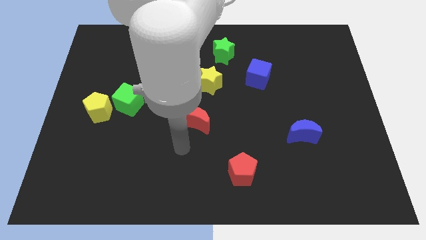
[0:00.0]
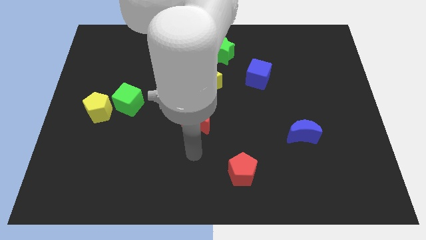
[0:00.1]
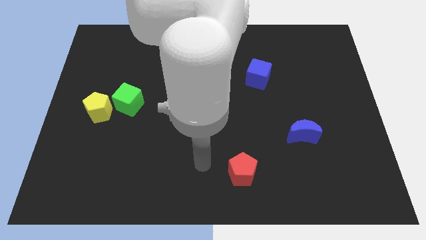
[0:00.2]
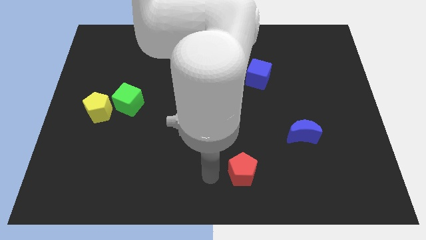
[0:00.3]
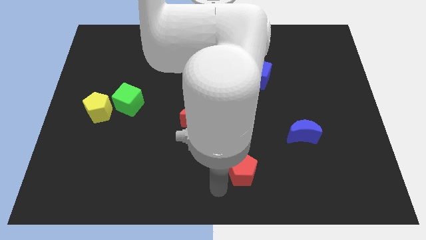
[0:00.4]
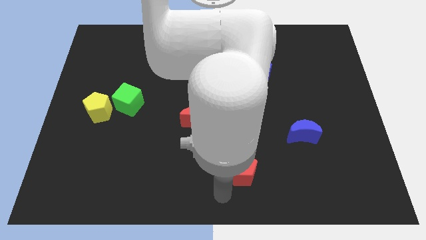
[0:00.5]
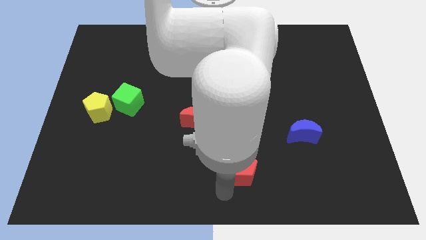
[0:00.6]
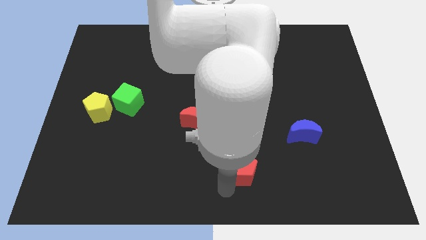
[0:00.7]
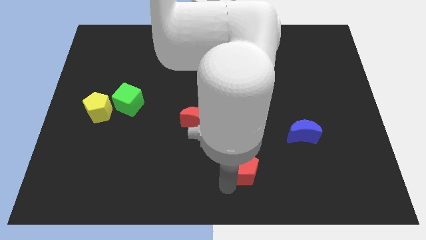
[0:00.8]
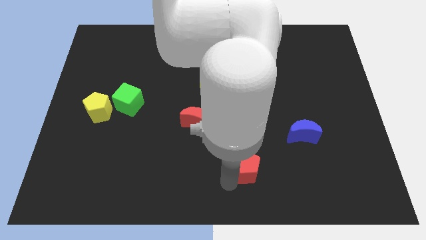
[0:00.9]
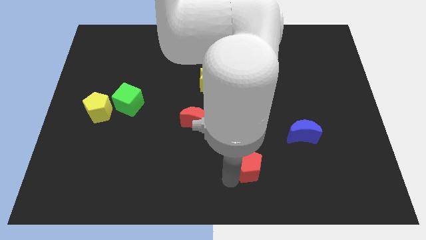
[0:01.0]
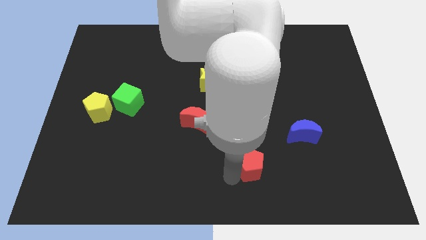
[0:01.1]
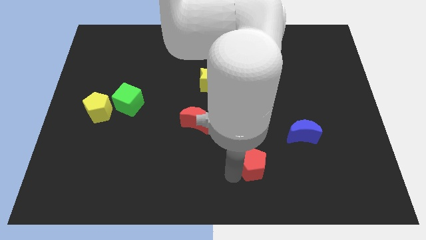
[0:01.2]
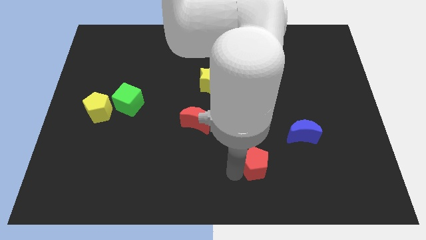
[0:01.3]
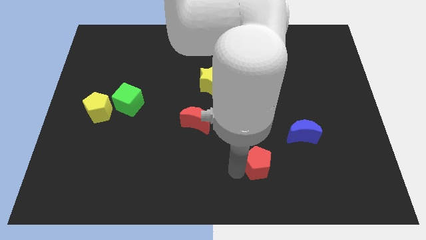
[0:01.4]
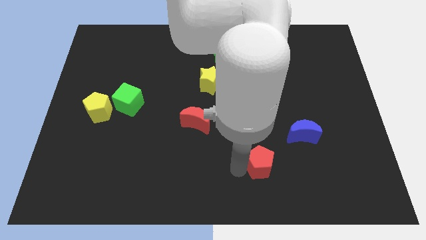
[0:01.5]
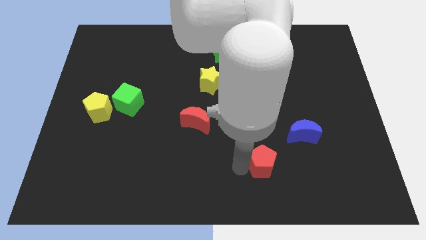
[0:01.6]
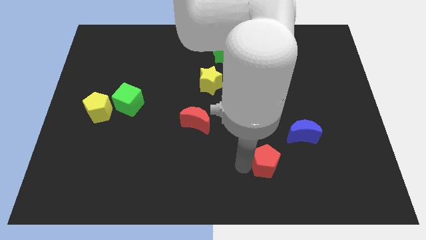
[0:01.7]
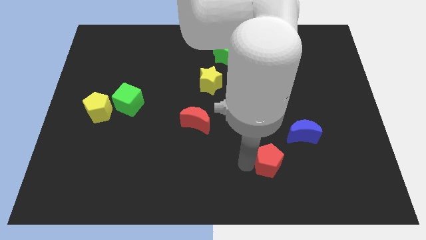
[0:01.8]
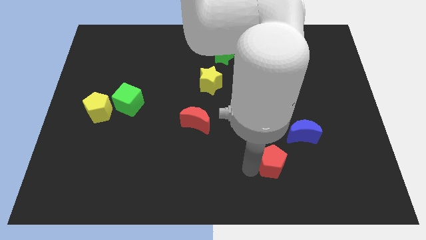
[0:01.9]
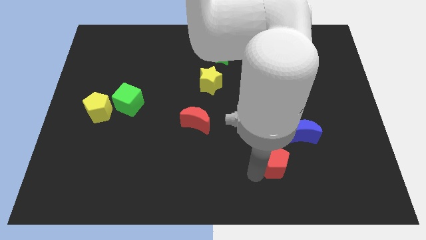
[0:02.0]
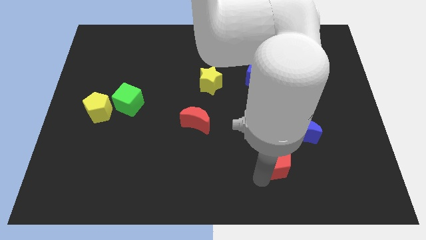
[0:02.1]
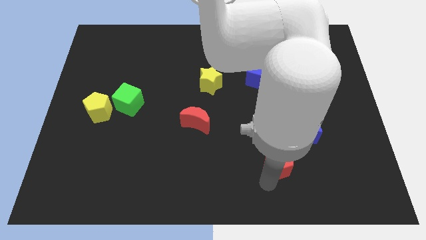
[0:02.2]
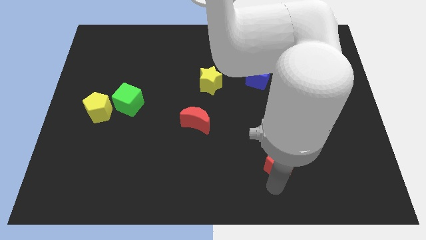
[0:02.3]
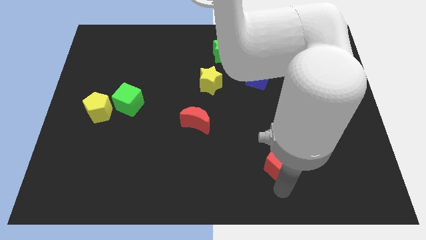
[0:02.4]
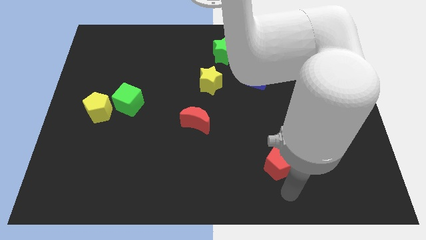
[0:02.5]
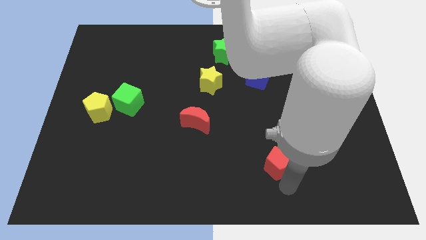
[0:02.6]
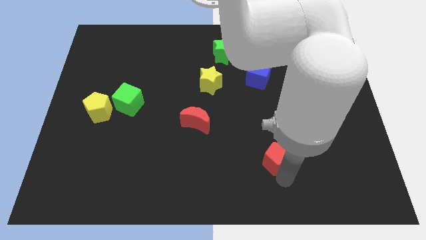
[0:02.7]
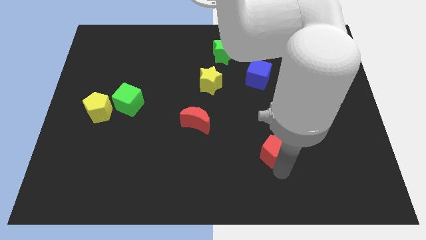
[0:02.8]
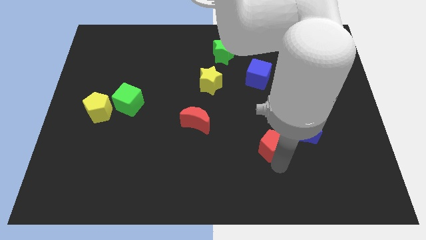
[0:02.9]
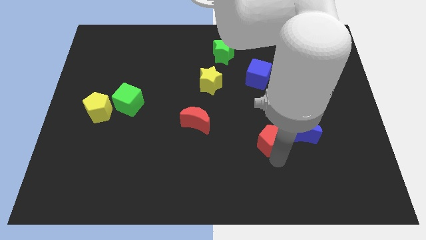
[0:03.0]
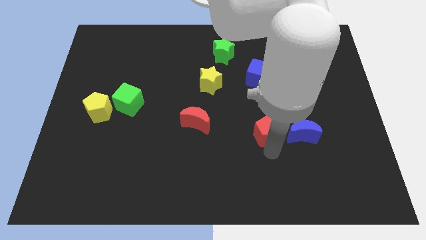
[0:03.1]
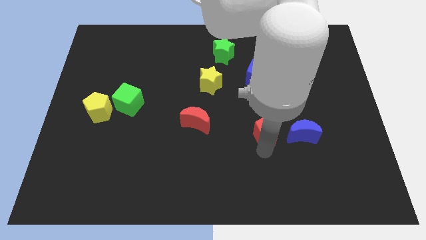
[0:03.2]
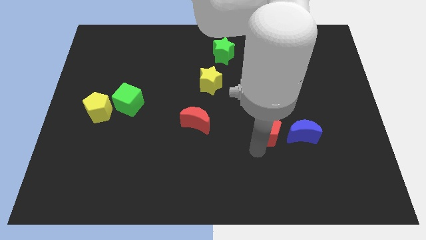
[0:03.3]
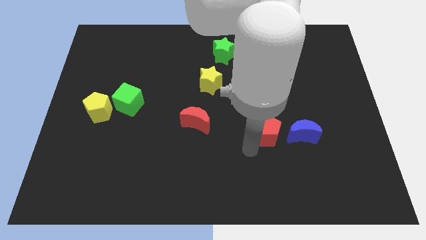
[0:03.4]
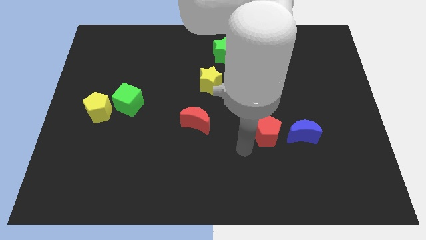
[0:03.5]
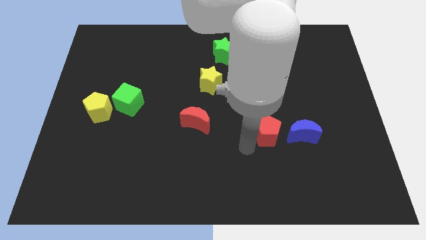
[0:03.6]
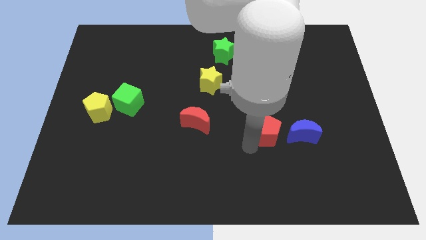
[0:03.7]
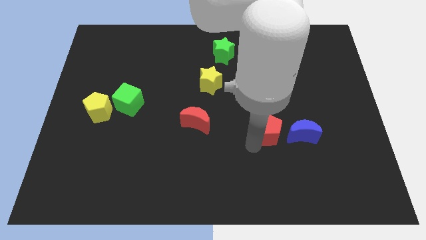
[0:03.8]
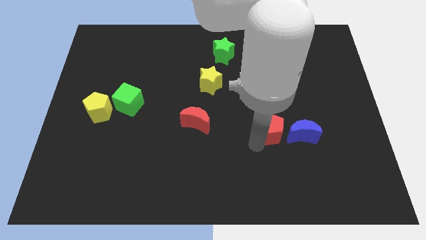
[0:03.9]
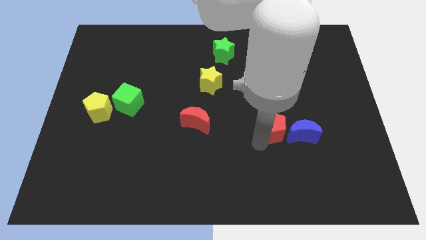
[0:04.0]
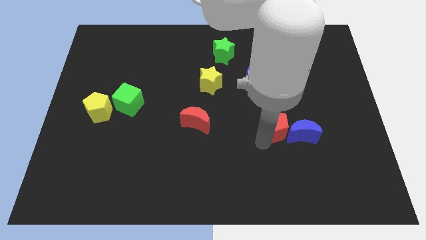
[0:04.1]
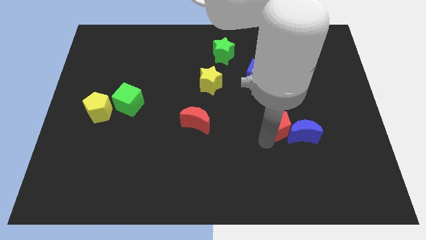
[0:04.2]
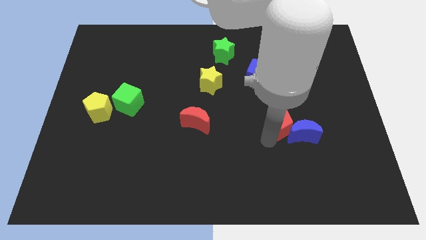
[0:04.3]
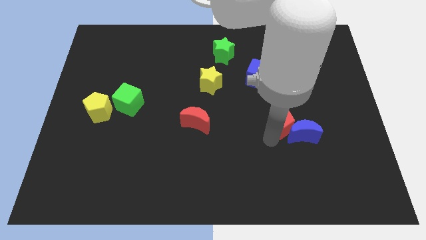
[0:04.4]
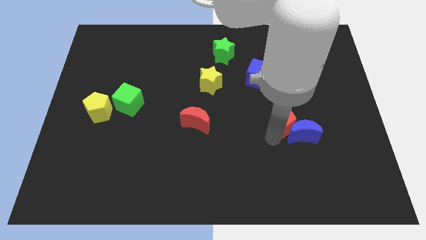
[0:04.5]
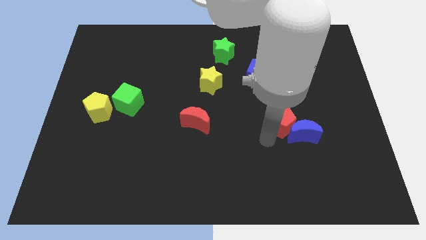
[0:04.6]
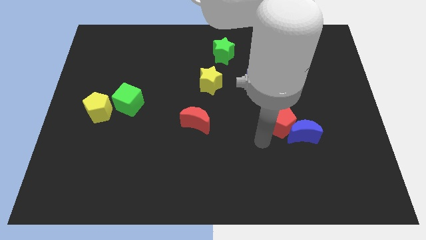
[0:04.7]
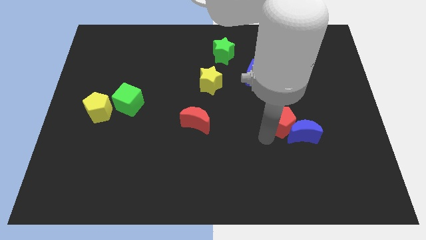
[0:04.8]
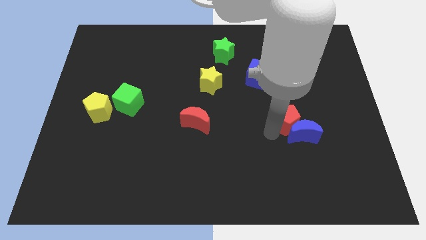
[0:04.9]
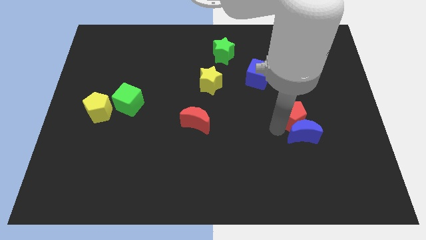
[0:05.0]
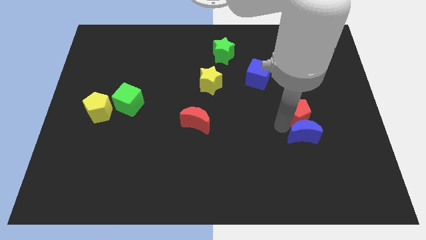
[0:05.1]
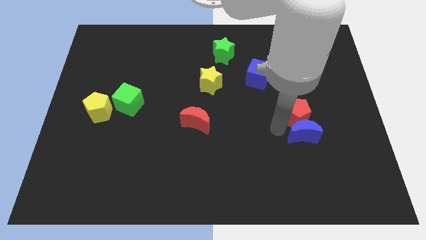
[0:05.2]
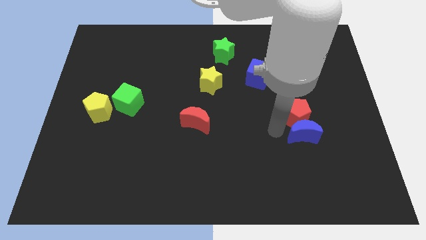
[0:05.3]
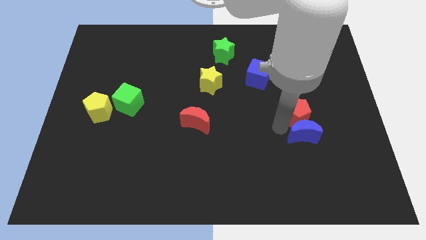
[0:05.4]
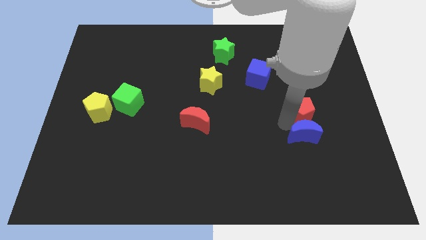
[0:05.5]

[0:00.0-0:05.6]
slide the red pentagon diagonally up and right

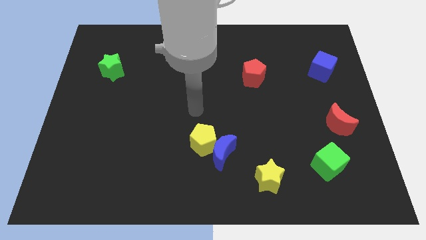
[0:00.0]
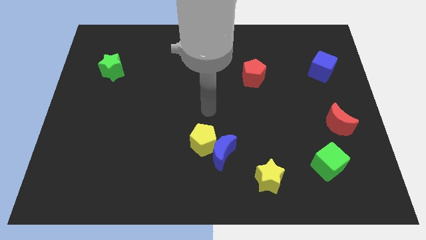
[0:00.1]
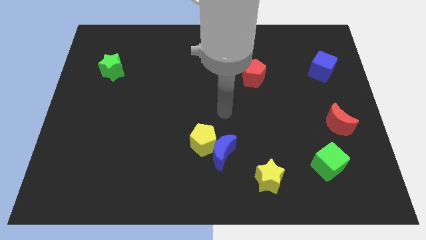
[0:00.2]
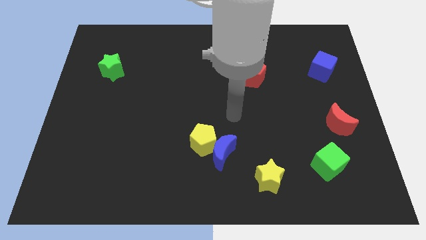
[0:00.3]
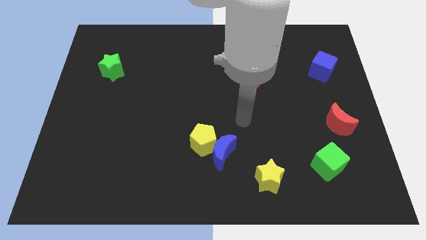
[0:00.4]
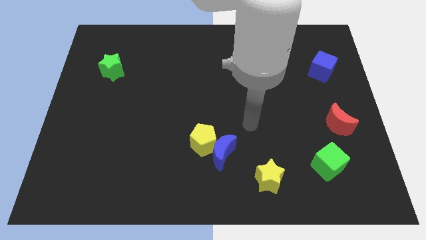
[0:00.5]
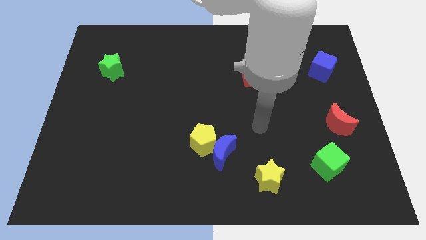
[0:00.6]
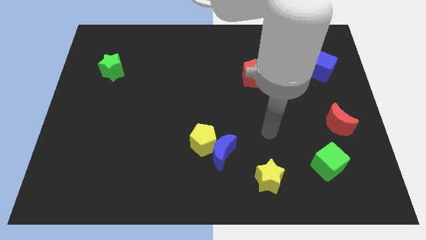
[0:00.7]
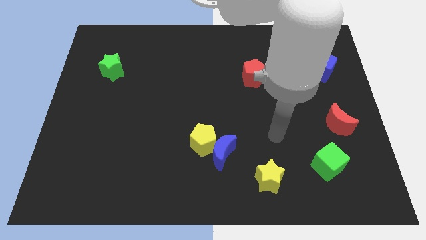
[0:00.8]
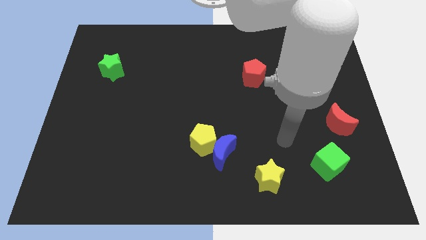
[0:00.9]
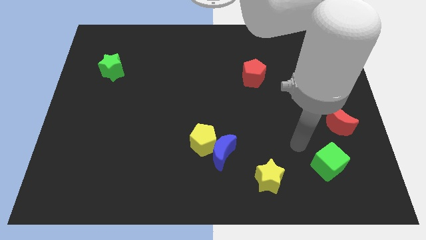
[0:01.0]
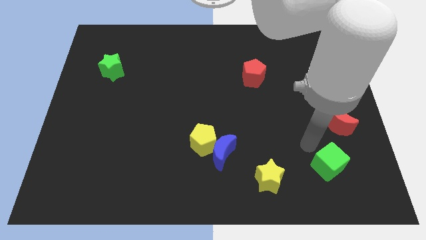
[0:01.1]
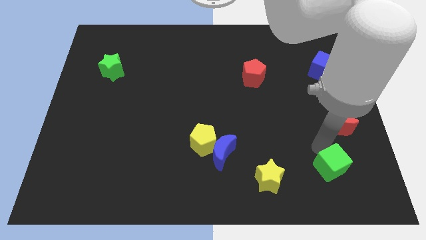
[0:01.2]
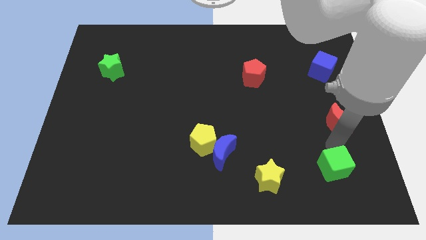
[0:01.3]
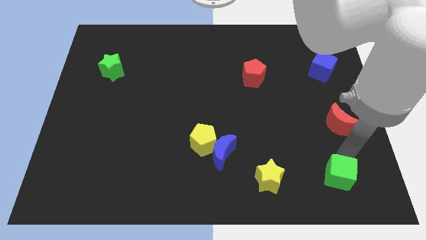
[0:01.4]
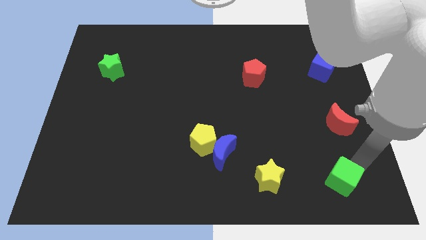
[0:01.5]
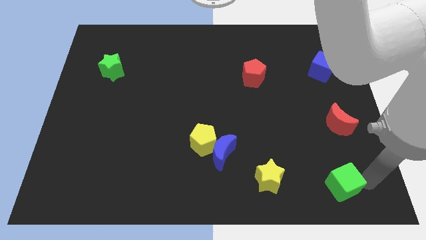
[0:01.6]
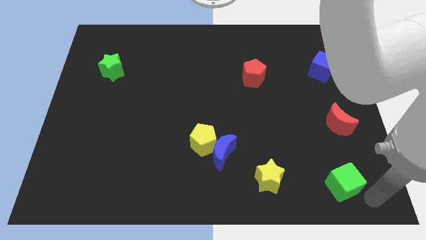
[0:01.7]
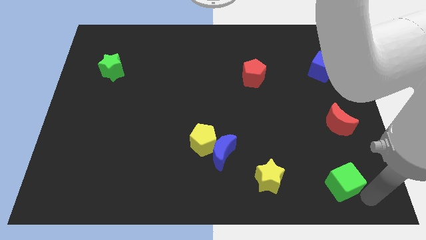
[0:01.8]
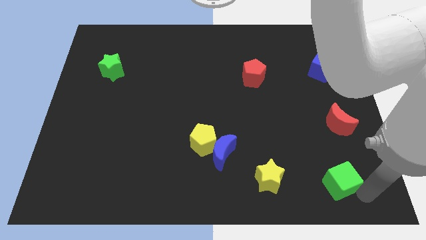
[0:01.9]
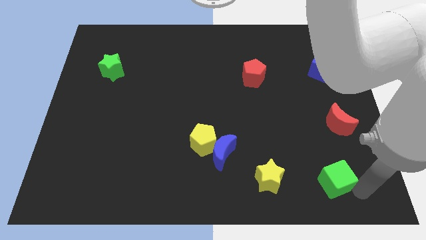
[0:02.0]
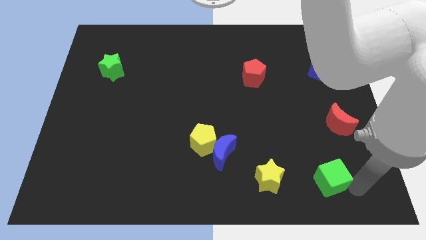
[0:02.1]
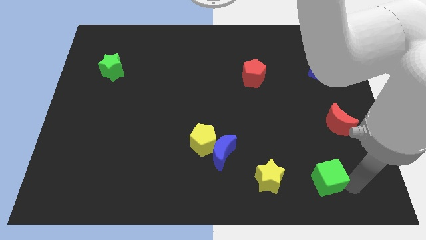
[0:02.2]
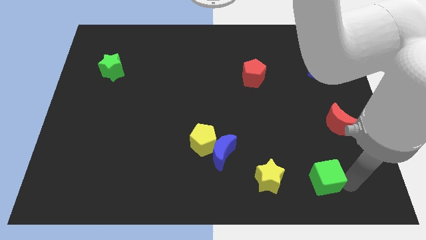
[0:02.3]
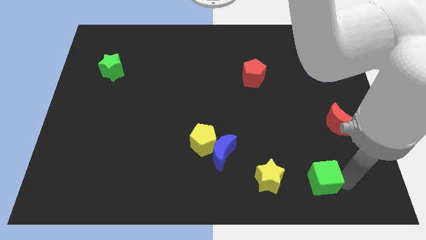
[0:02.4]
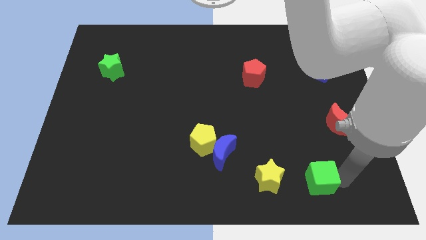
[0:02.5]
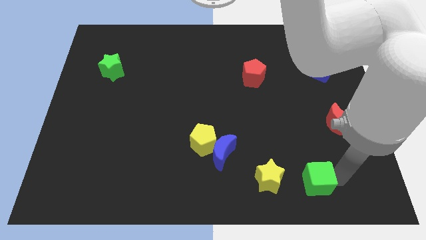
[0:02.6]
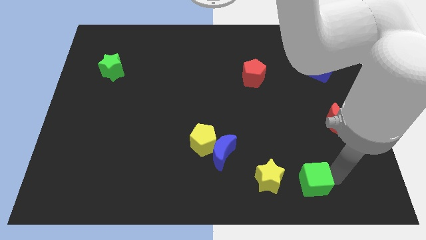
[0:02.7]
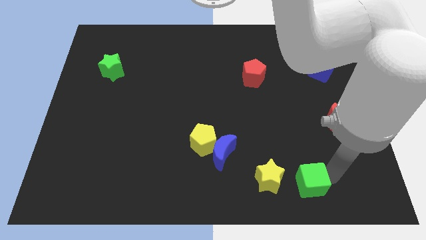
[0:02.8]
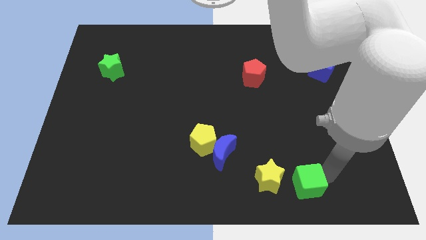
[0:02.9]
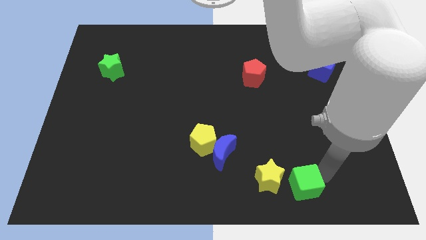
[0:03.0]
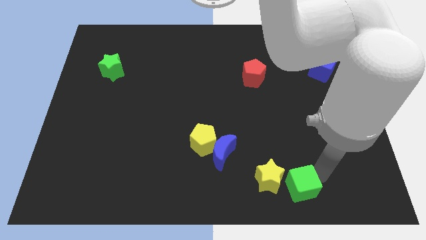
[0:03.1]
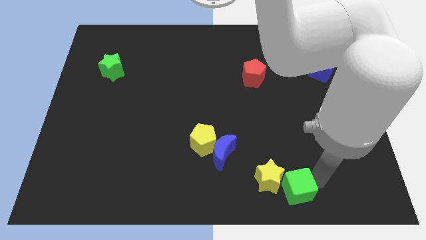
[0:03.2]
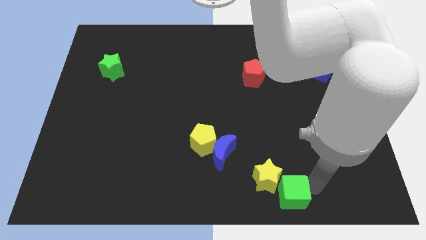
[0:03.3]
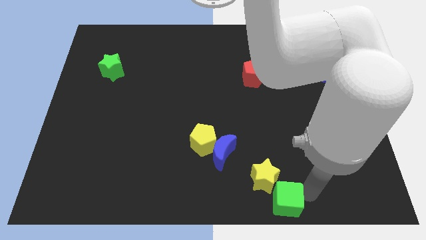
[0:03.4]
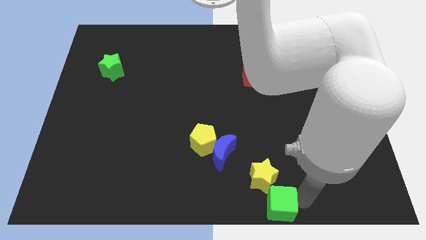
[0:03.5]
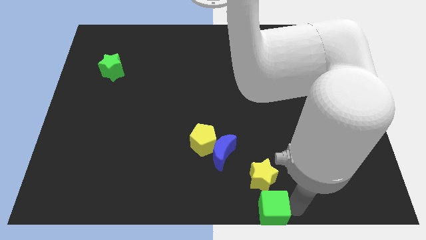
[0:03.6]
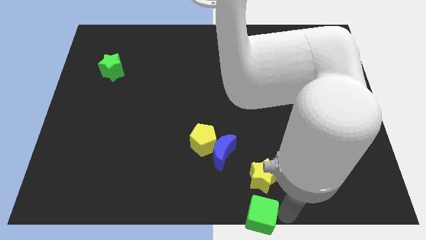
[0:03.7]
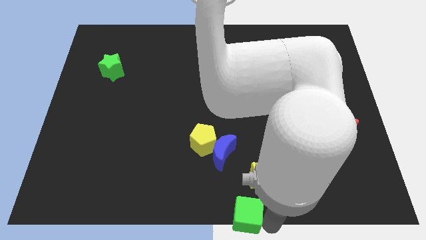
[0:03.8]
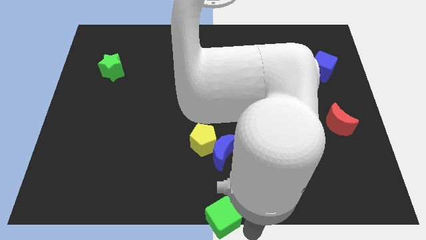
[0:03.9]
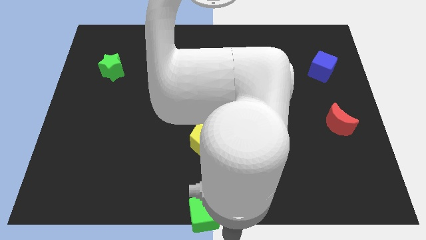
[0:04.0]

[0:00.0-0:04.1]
slide the green cube to the left
